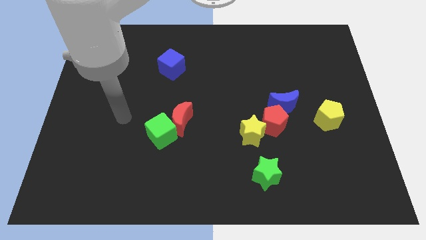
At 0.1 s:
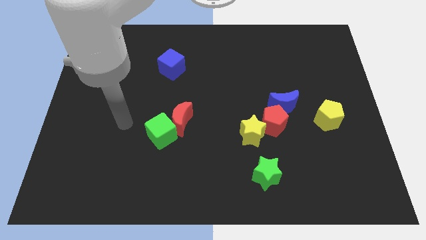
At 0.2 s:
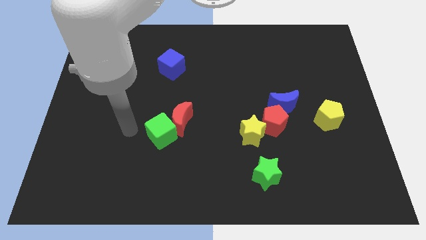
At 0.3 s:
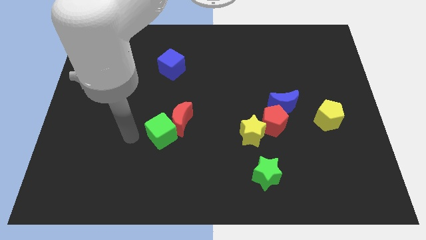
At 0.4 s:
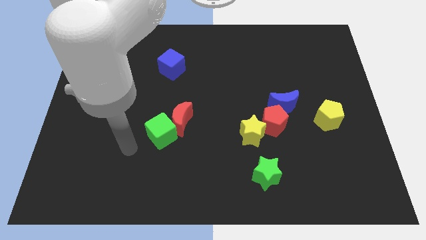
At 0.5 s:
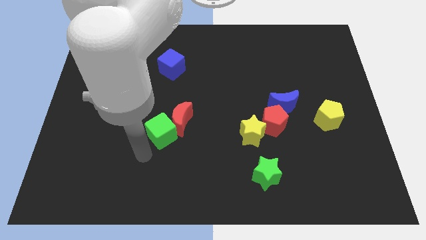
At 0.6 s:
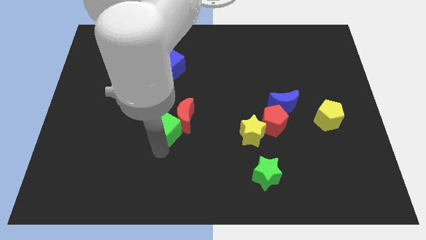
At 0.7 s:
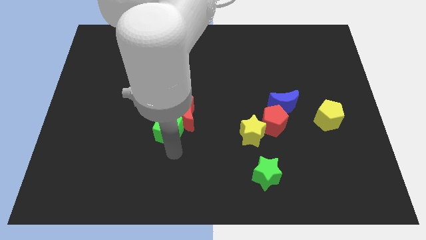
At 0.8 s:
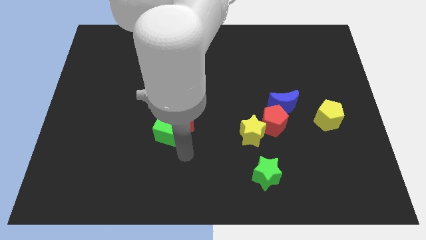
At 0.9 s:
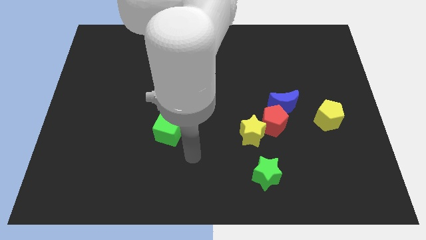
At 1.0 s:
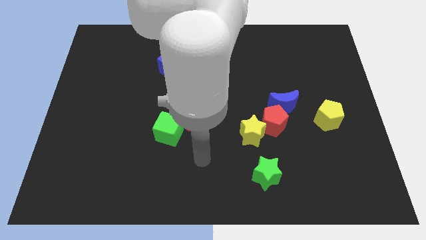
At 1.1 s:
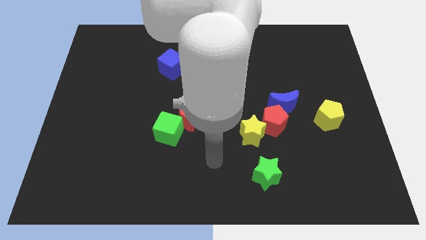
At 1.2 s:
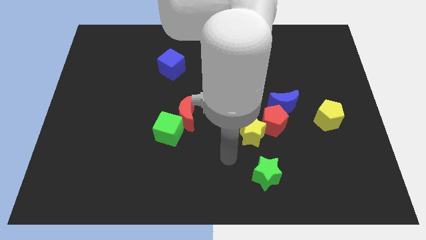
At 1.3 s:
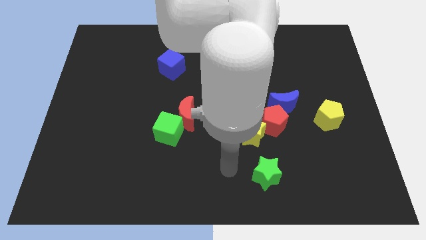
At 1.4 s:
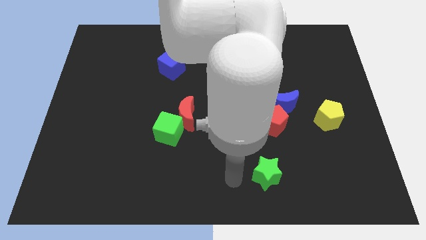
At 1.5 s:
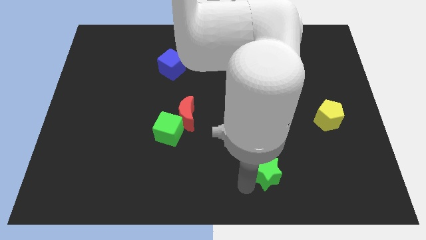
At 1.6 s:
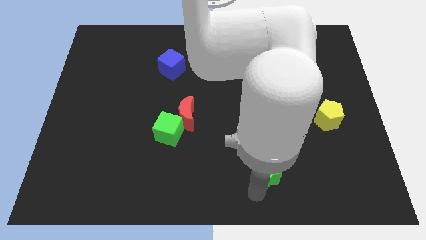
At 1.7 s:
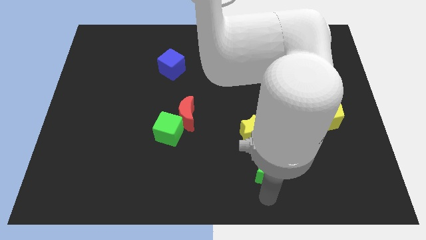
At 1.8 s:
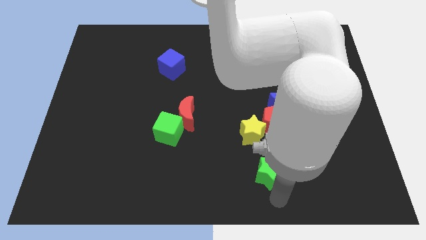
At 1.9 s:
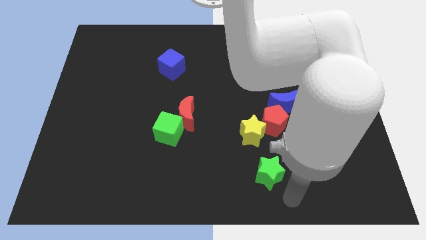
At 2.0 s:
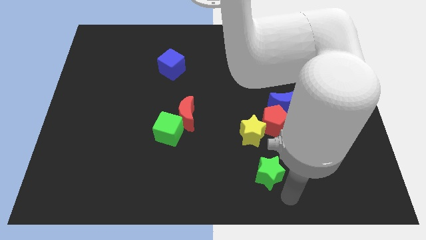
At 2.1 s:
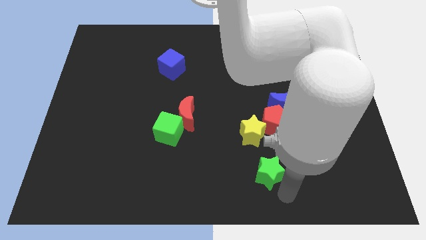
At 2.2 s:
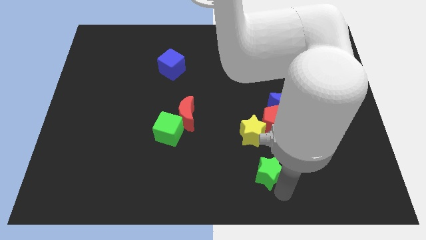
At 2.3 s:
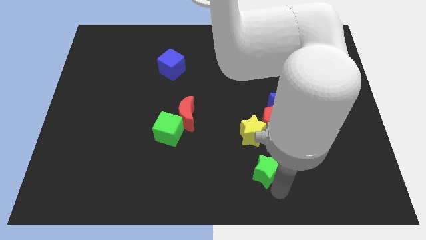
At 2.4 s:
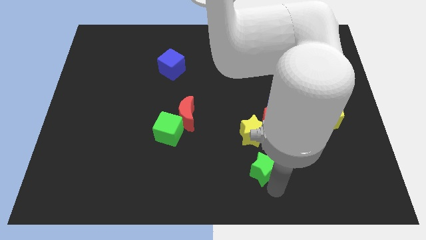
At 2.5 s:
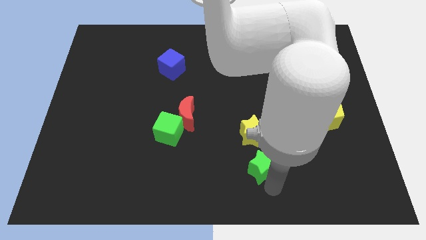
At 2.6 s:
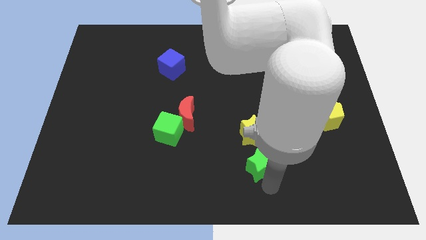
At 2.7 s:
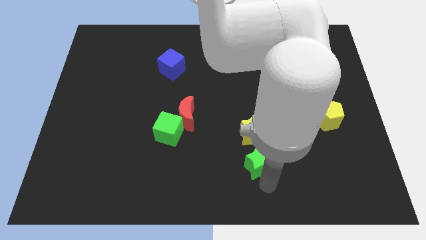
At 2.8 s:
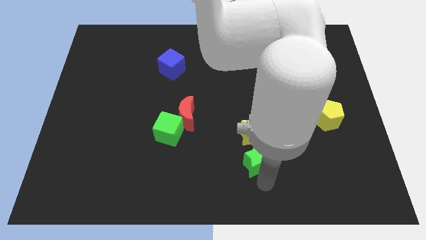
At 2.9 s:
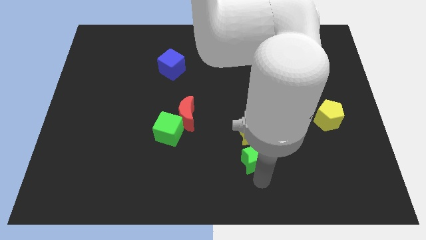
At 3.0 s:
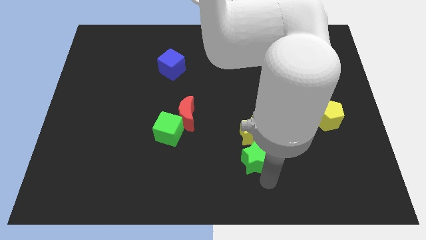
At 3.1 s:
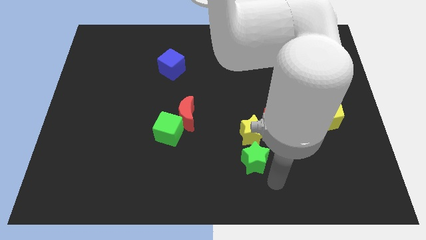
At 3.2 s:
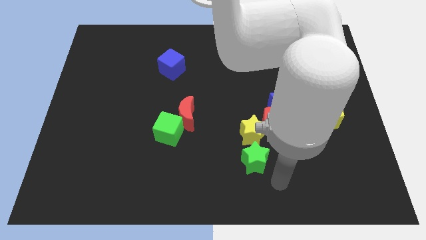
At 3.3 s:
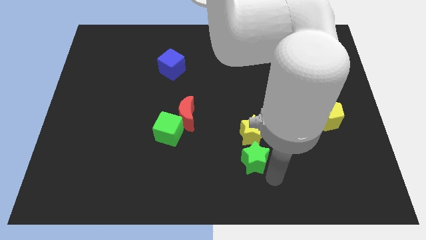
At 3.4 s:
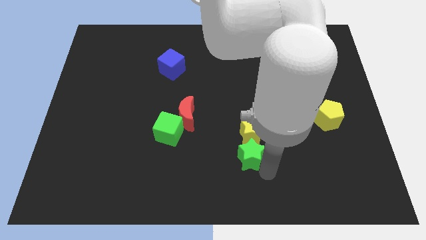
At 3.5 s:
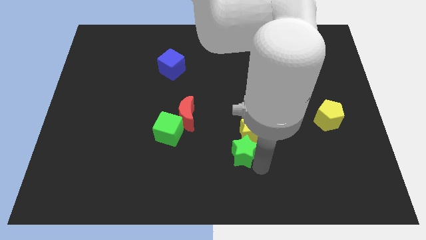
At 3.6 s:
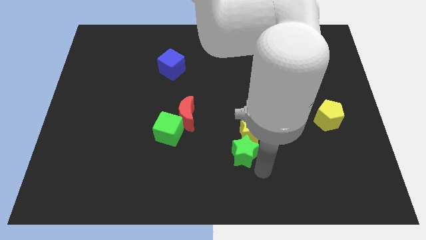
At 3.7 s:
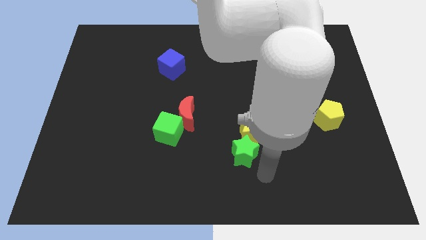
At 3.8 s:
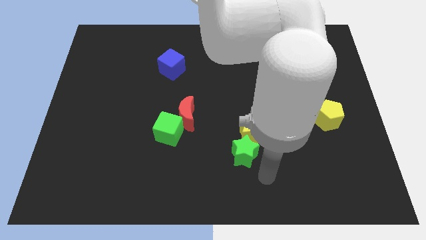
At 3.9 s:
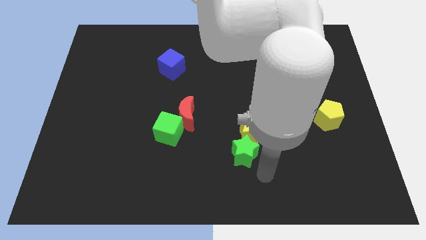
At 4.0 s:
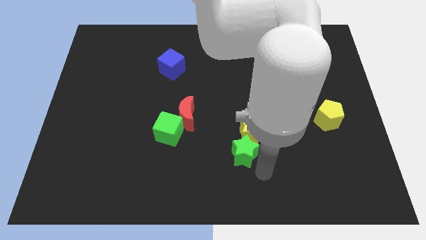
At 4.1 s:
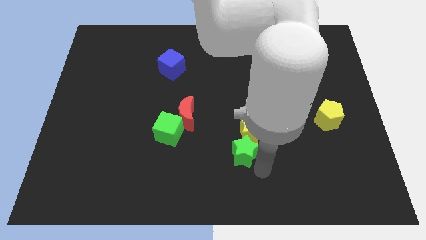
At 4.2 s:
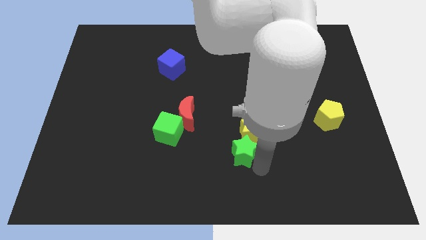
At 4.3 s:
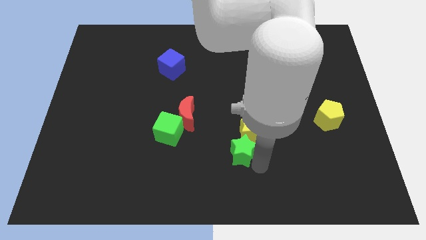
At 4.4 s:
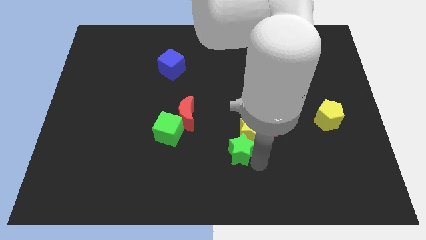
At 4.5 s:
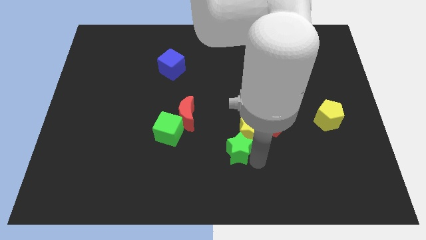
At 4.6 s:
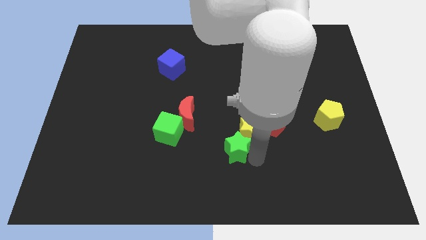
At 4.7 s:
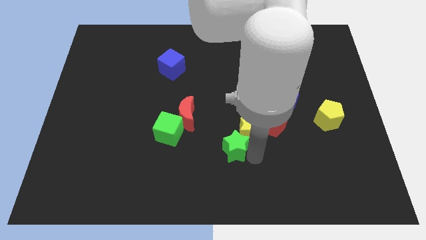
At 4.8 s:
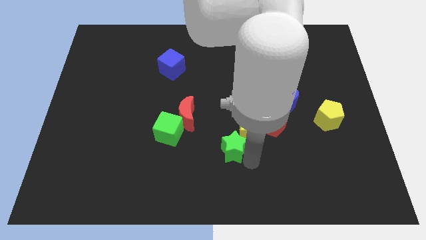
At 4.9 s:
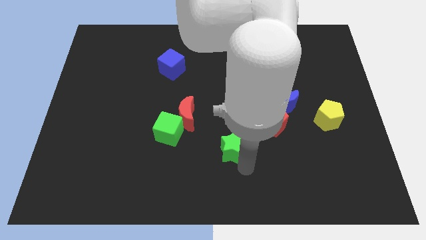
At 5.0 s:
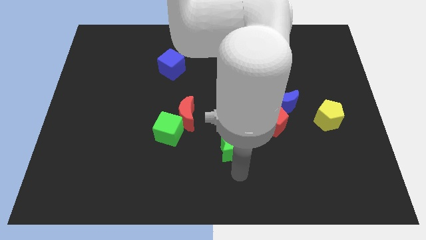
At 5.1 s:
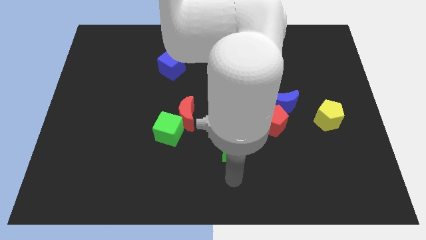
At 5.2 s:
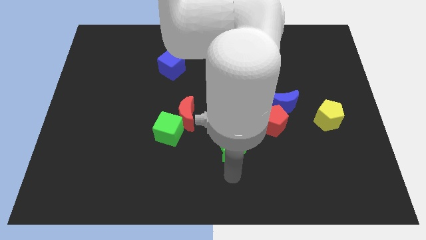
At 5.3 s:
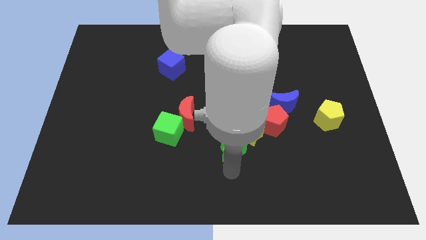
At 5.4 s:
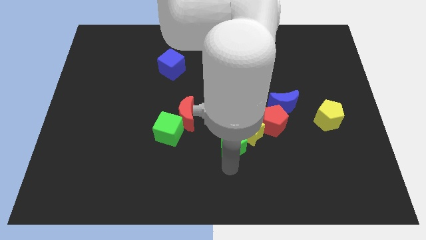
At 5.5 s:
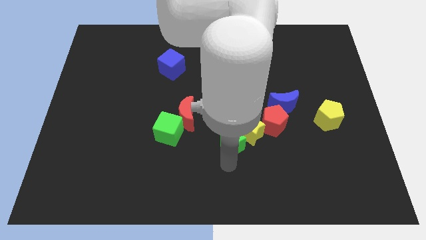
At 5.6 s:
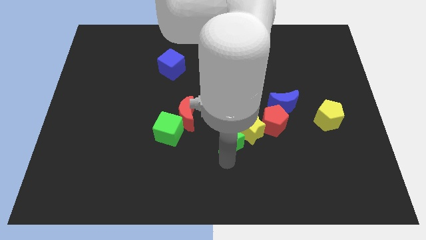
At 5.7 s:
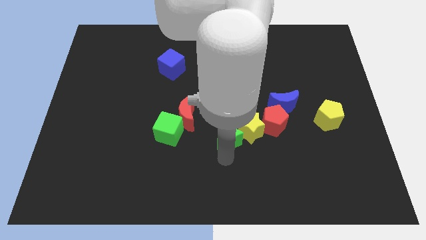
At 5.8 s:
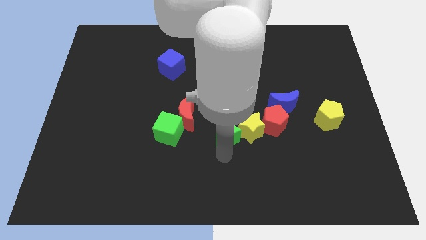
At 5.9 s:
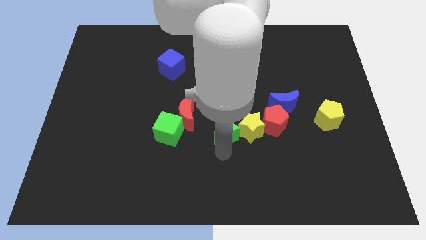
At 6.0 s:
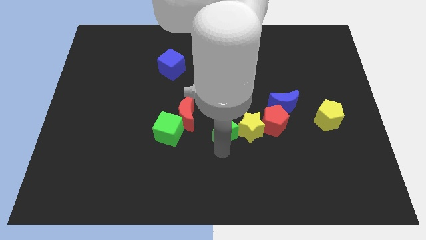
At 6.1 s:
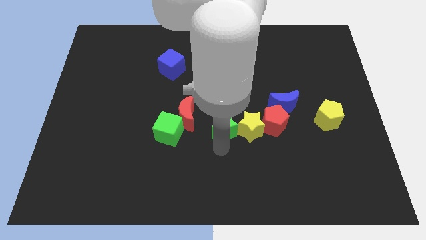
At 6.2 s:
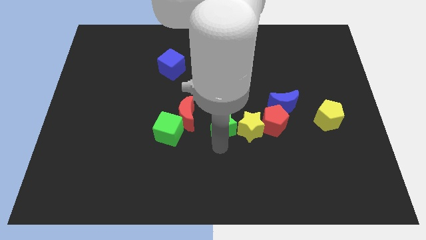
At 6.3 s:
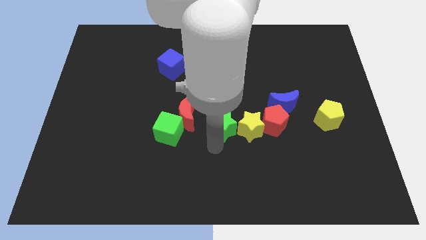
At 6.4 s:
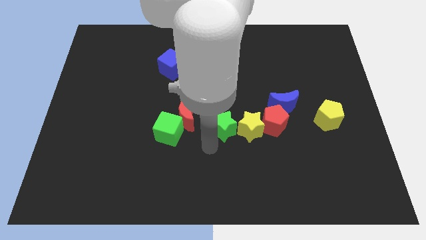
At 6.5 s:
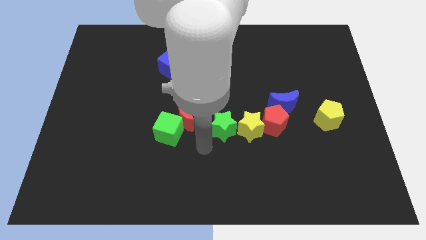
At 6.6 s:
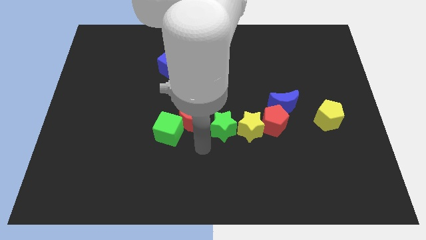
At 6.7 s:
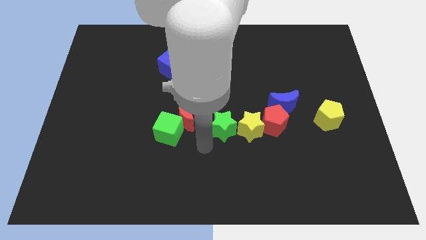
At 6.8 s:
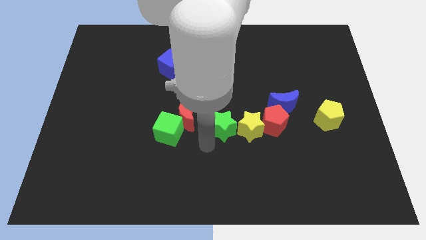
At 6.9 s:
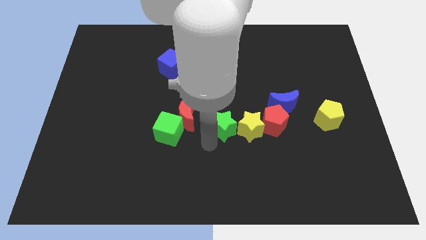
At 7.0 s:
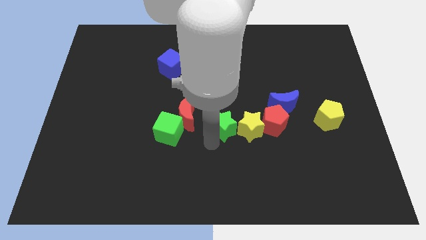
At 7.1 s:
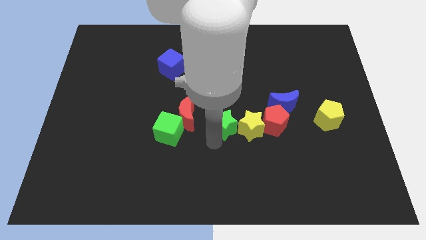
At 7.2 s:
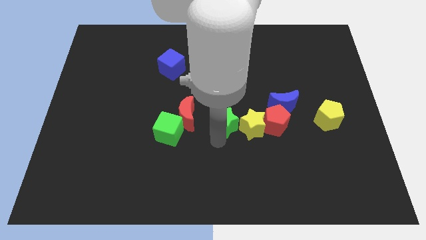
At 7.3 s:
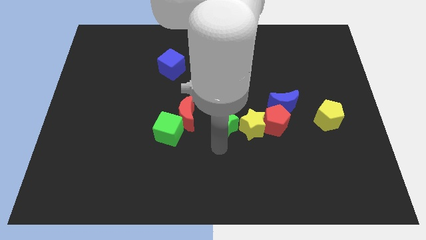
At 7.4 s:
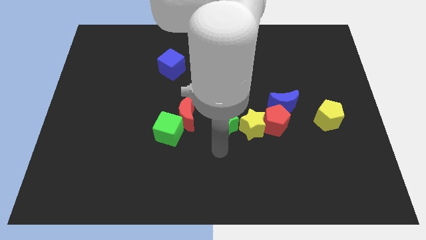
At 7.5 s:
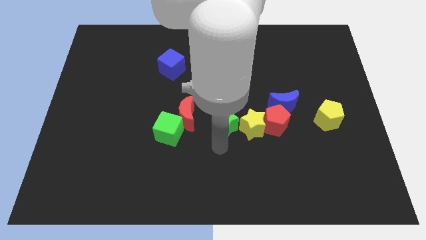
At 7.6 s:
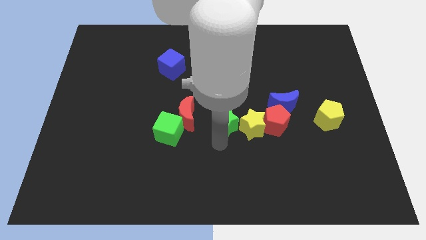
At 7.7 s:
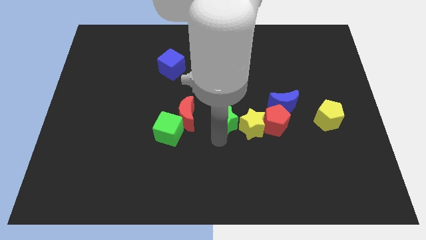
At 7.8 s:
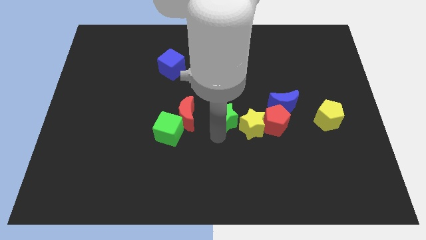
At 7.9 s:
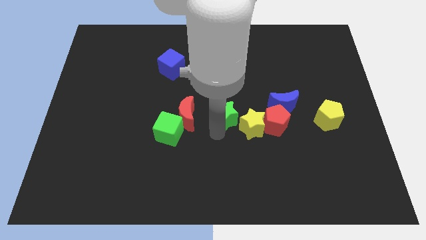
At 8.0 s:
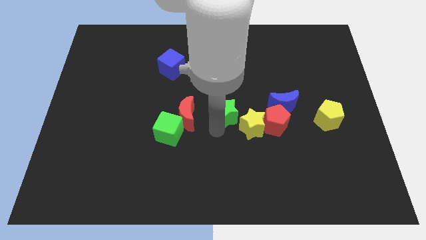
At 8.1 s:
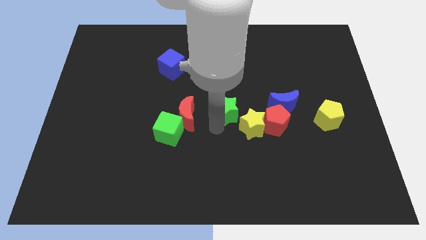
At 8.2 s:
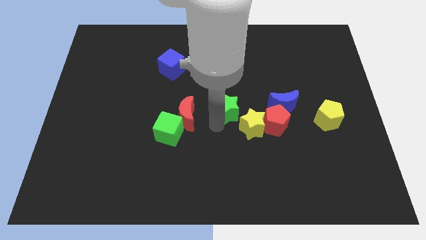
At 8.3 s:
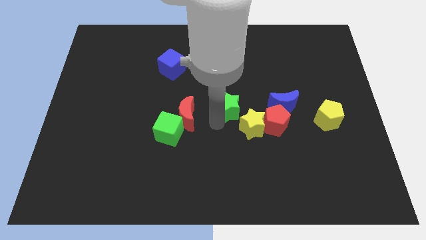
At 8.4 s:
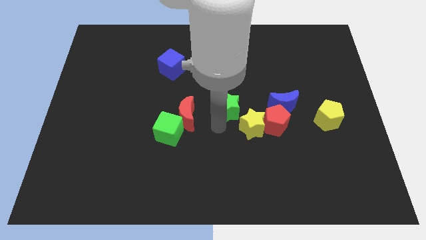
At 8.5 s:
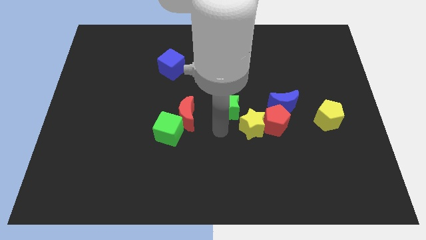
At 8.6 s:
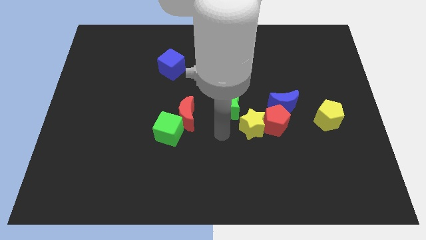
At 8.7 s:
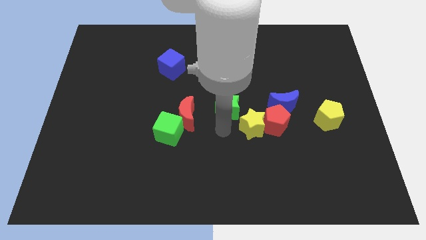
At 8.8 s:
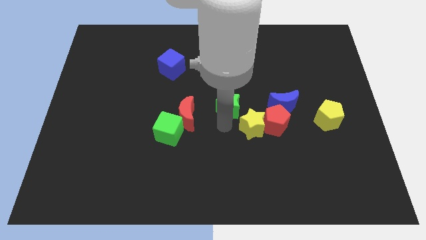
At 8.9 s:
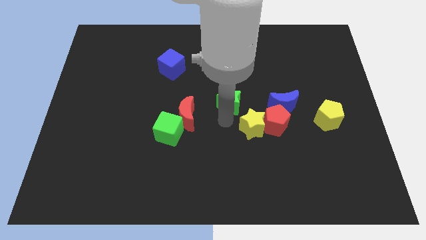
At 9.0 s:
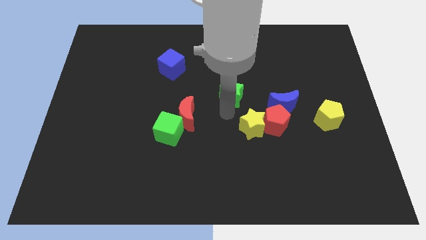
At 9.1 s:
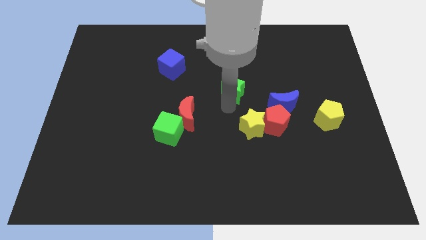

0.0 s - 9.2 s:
push the green star up
